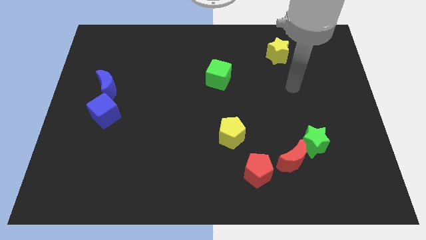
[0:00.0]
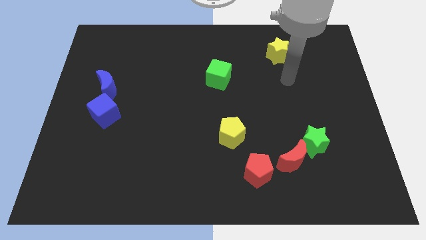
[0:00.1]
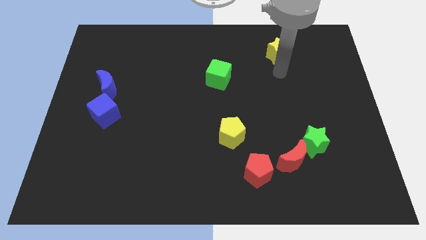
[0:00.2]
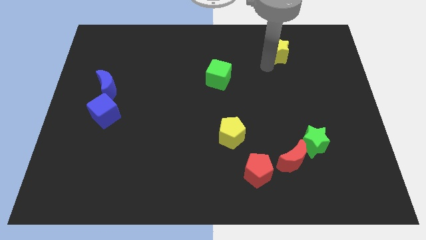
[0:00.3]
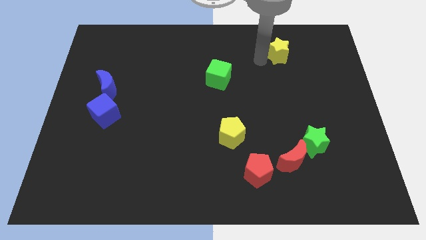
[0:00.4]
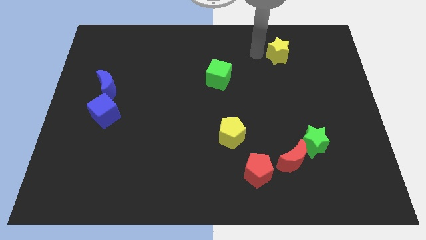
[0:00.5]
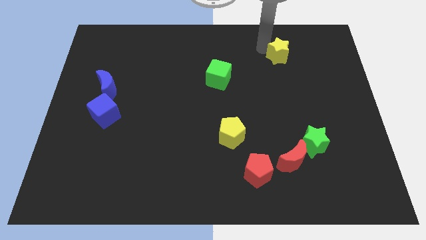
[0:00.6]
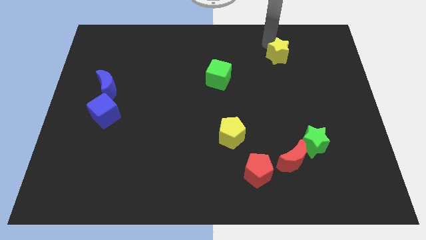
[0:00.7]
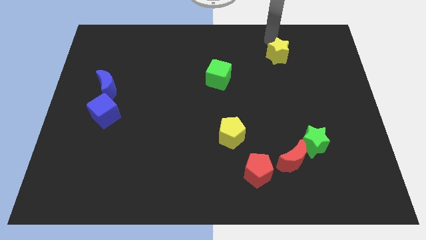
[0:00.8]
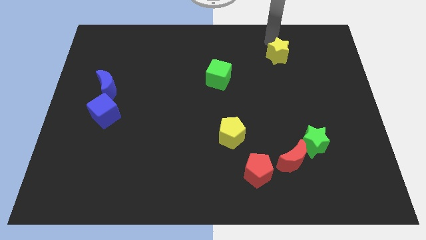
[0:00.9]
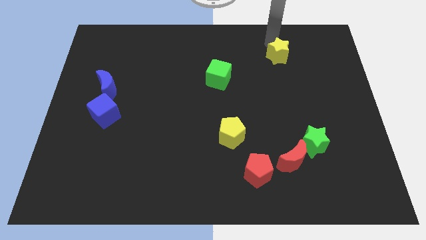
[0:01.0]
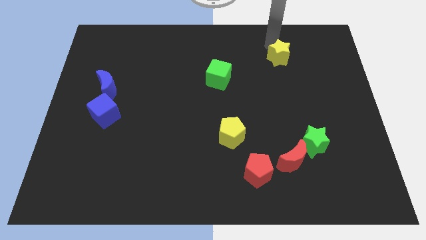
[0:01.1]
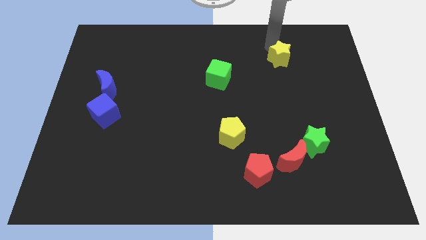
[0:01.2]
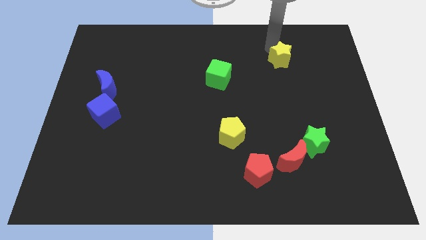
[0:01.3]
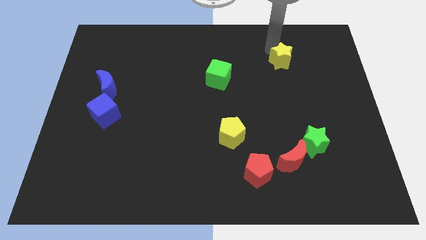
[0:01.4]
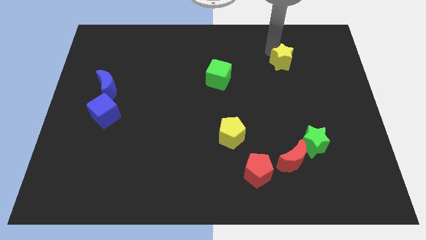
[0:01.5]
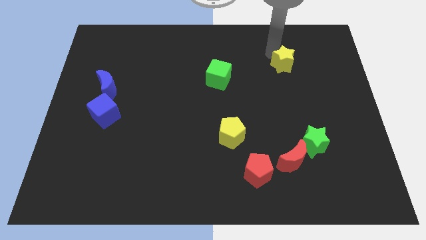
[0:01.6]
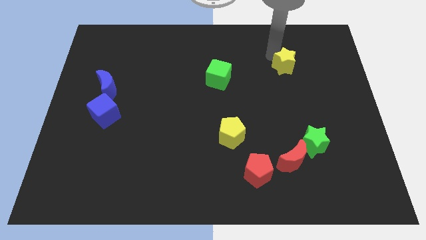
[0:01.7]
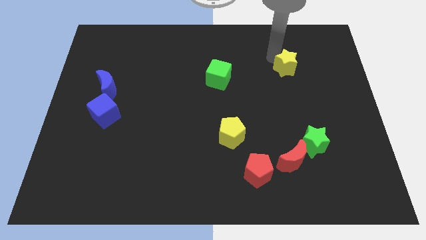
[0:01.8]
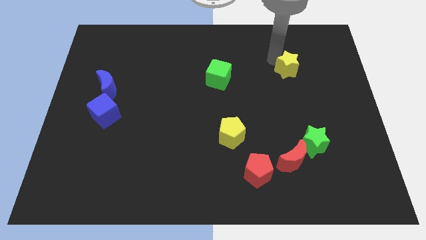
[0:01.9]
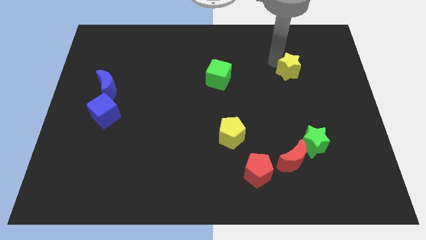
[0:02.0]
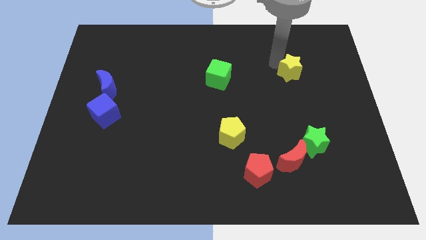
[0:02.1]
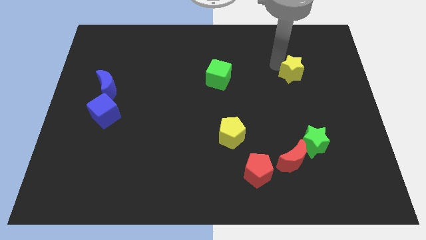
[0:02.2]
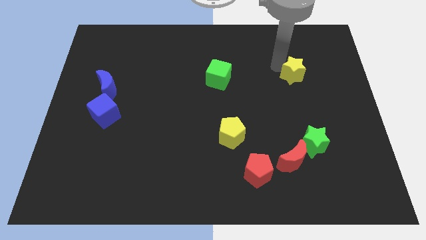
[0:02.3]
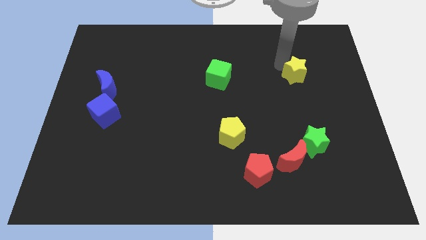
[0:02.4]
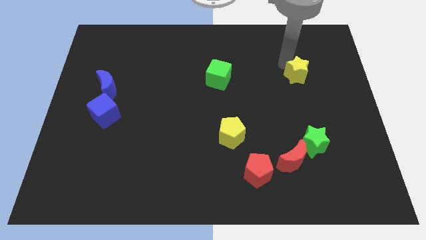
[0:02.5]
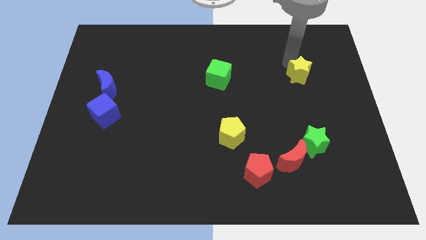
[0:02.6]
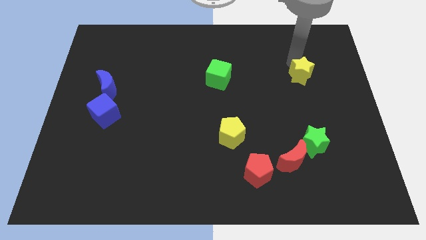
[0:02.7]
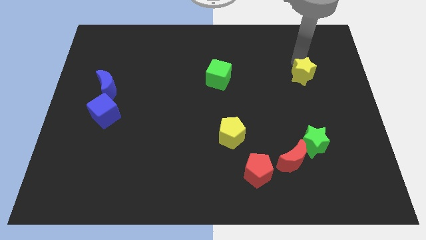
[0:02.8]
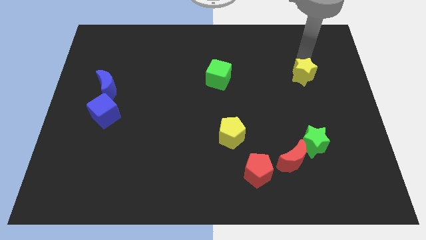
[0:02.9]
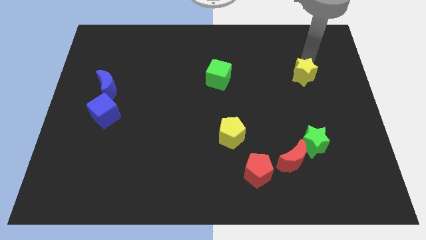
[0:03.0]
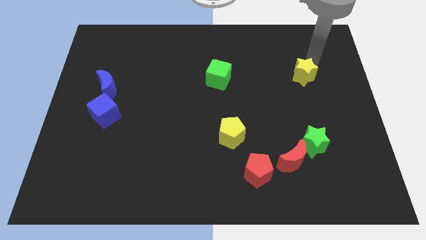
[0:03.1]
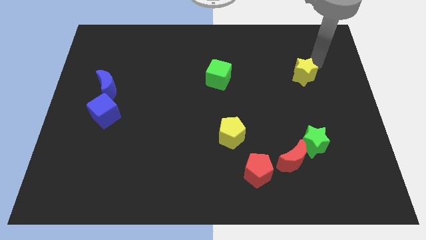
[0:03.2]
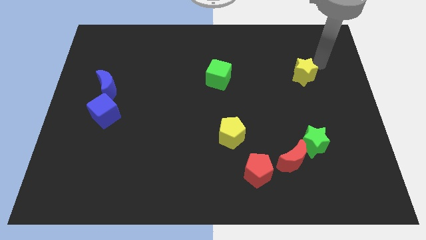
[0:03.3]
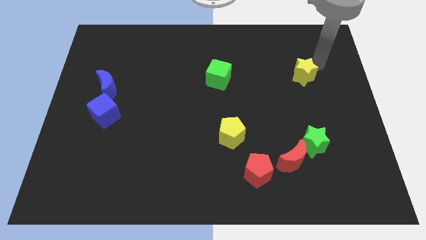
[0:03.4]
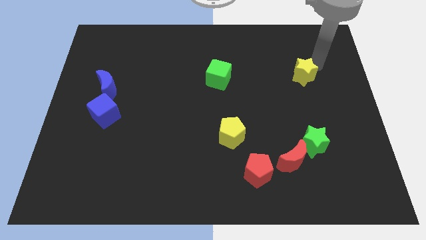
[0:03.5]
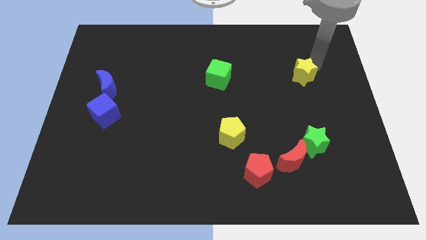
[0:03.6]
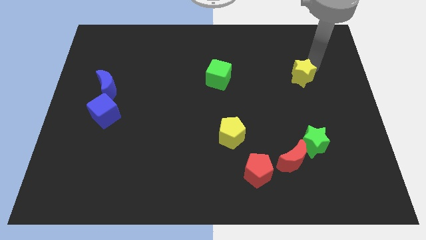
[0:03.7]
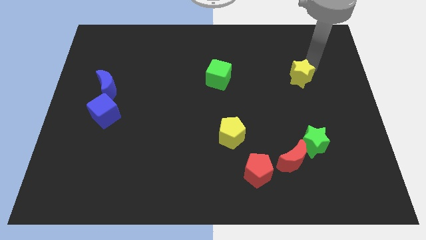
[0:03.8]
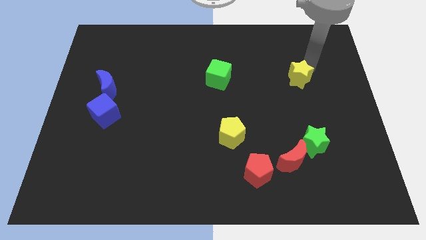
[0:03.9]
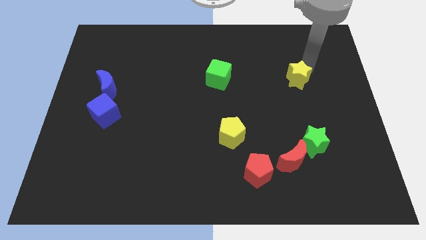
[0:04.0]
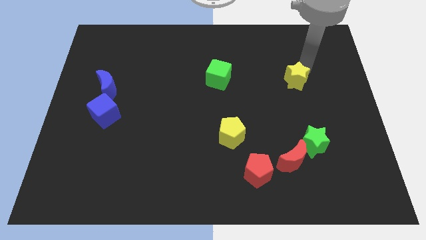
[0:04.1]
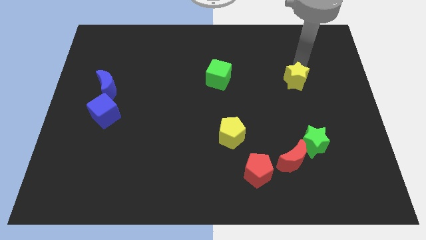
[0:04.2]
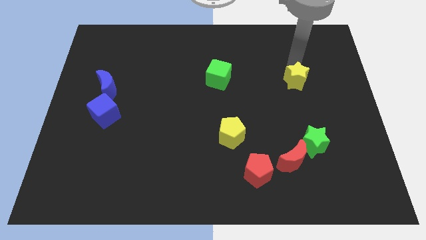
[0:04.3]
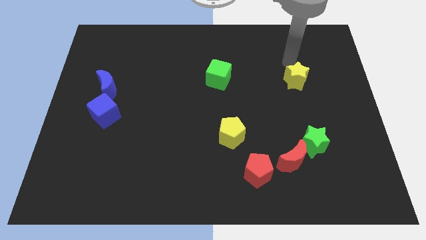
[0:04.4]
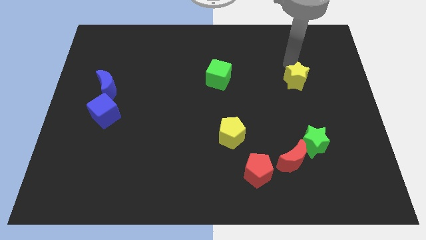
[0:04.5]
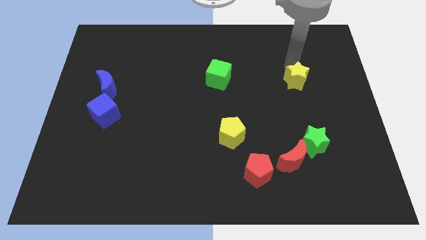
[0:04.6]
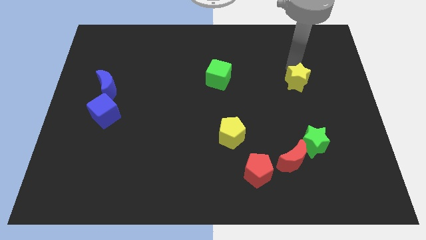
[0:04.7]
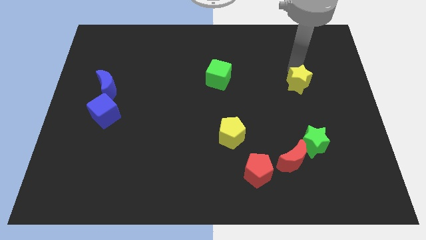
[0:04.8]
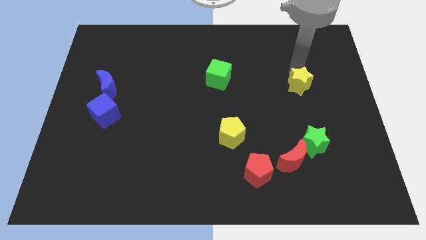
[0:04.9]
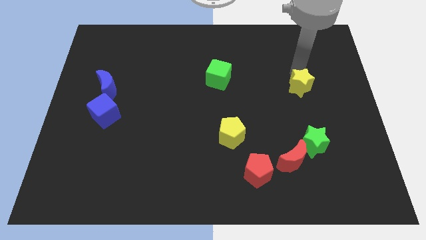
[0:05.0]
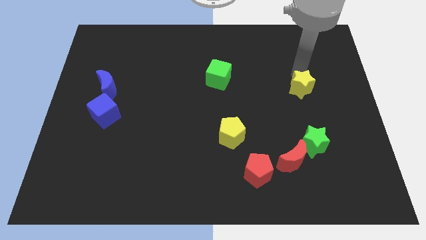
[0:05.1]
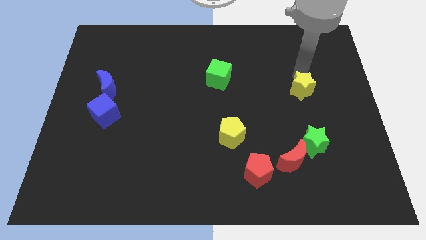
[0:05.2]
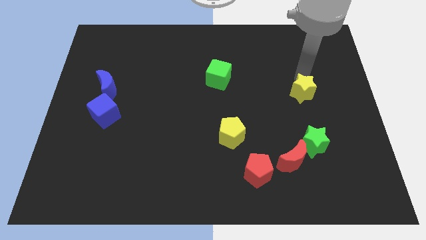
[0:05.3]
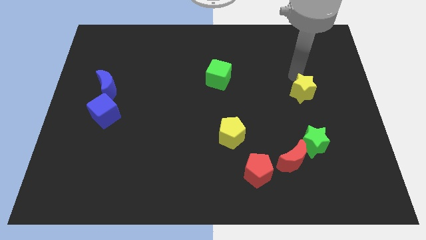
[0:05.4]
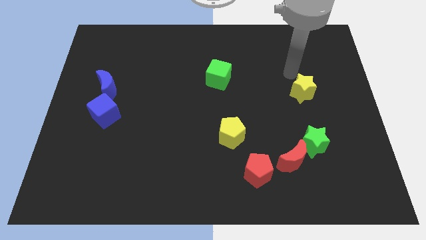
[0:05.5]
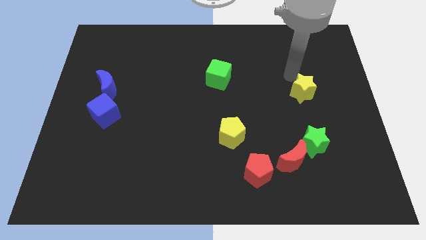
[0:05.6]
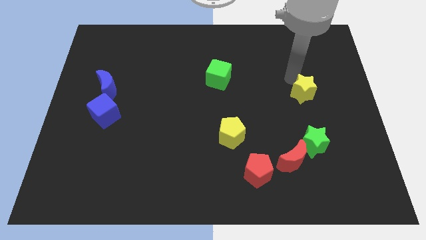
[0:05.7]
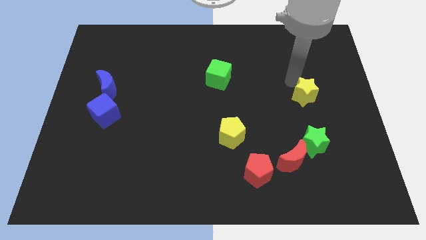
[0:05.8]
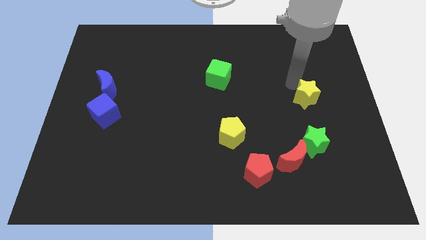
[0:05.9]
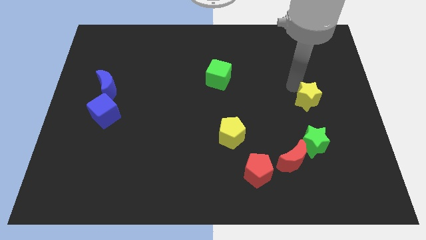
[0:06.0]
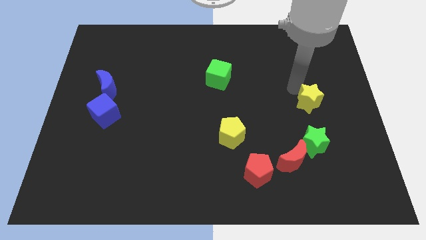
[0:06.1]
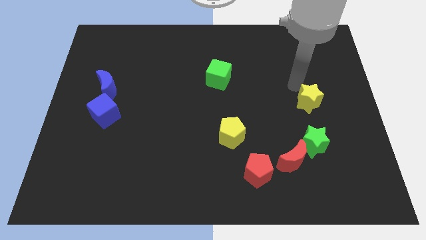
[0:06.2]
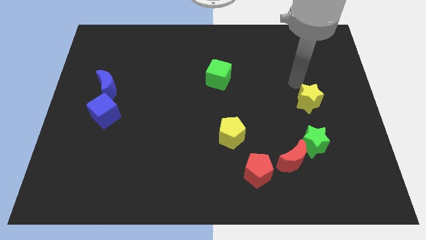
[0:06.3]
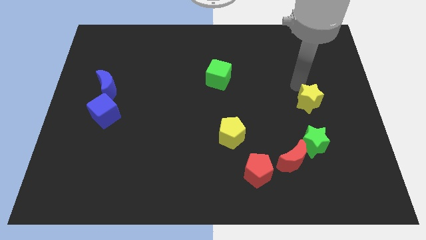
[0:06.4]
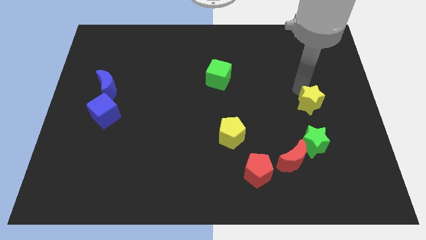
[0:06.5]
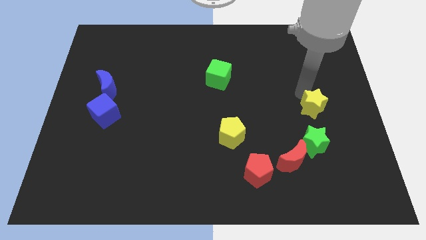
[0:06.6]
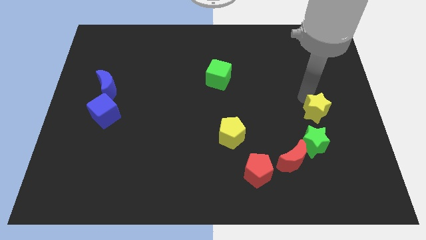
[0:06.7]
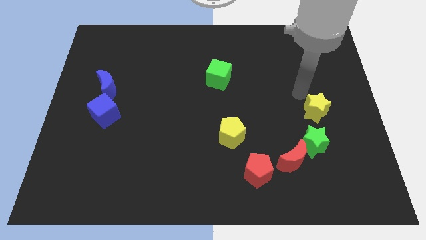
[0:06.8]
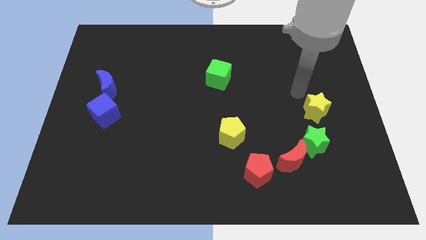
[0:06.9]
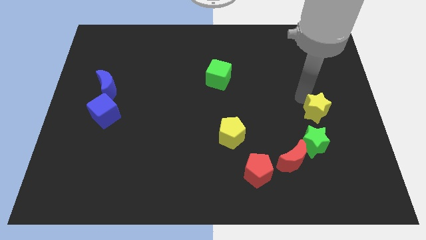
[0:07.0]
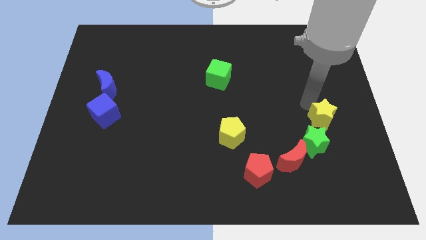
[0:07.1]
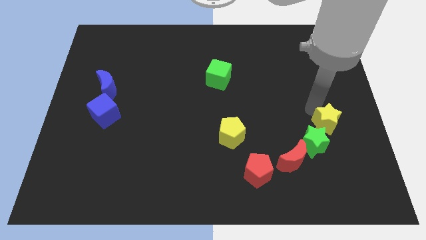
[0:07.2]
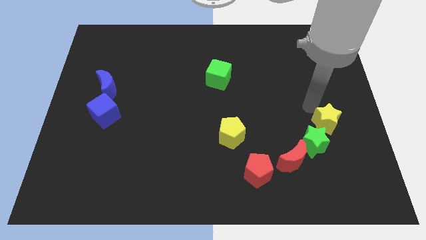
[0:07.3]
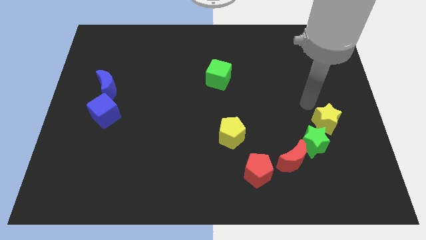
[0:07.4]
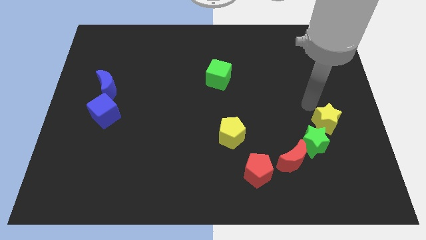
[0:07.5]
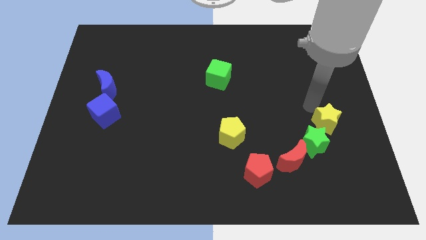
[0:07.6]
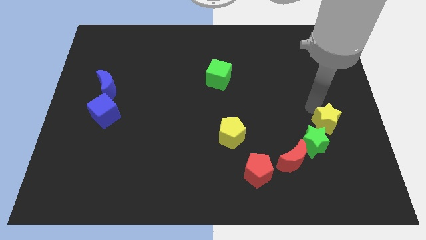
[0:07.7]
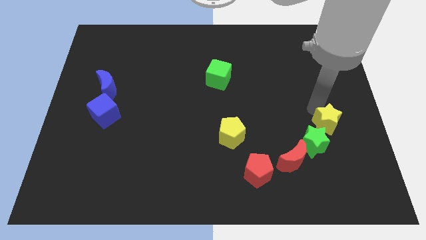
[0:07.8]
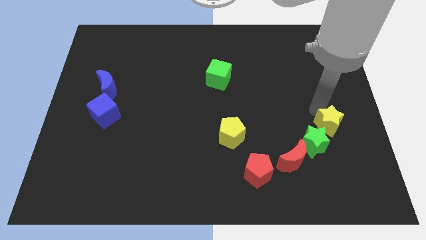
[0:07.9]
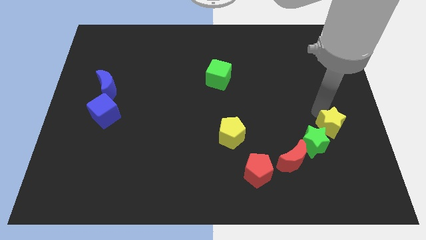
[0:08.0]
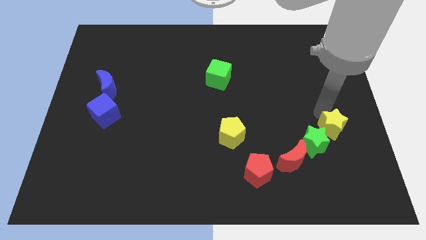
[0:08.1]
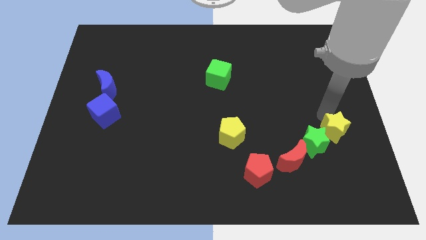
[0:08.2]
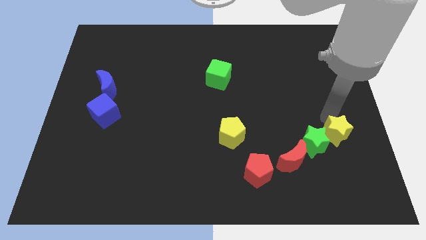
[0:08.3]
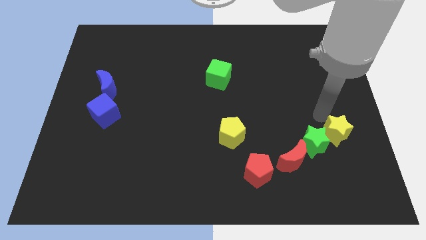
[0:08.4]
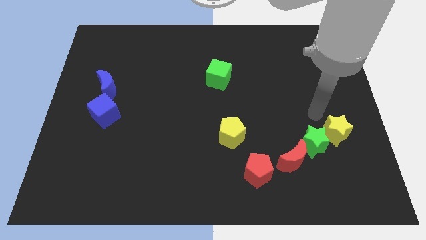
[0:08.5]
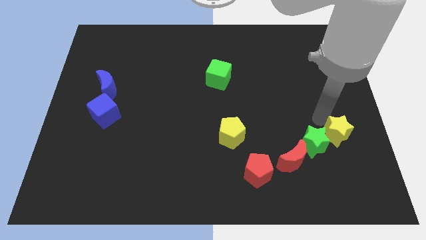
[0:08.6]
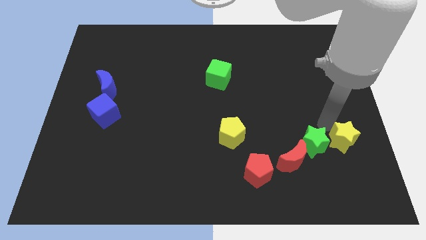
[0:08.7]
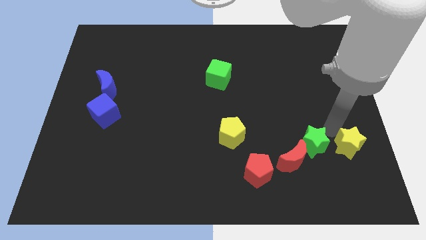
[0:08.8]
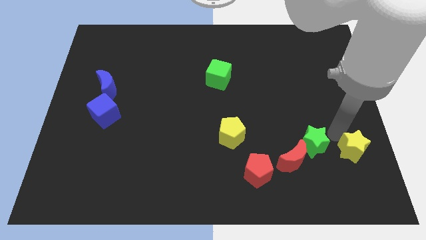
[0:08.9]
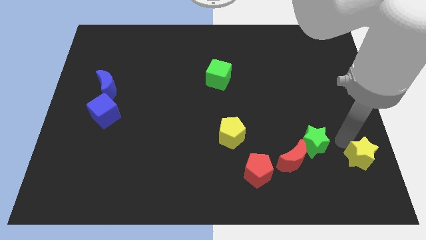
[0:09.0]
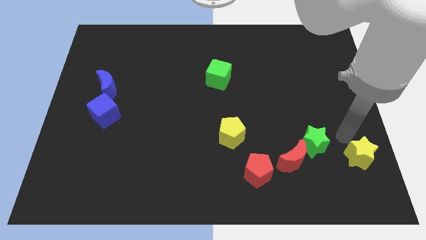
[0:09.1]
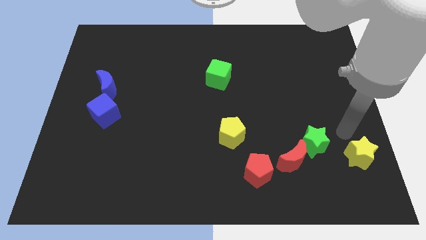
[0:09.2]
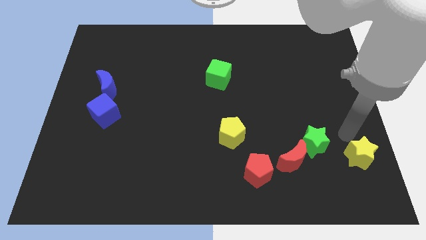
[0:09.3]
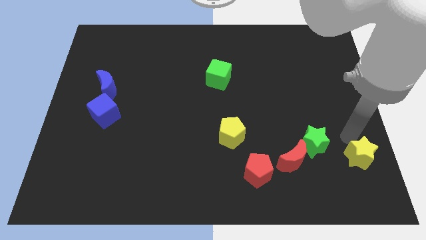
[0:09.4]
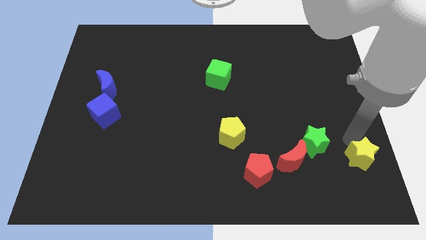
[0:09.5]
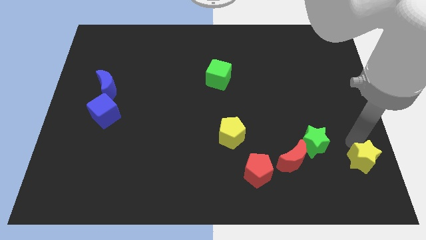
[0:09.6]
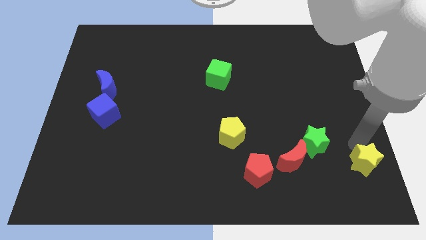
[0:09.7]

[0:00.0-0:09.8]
push the yellow star to the lower right corner
